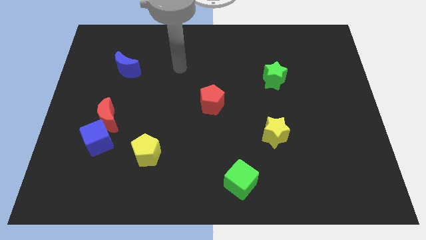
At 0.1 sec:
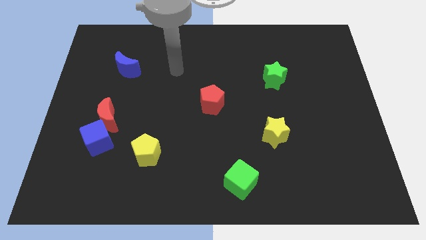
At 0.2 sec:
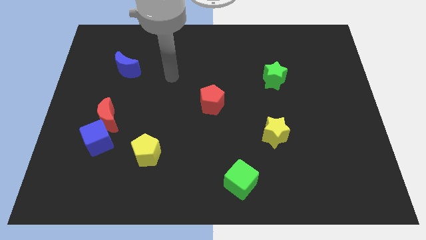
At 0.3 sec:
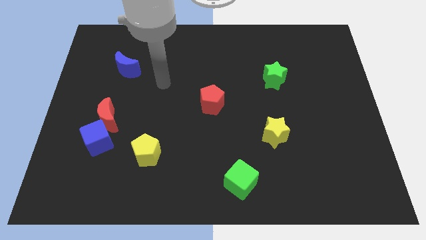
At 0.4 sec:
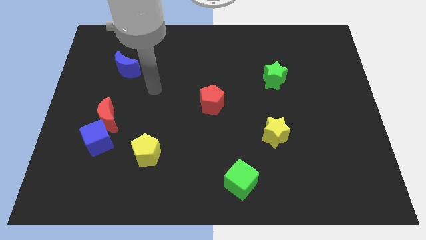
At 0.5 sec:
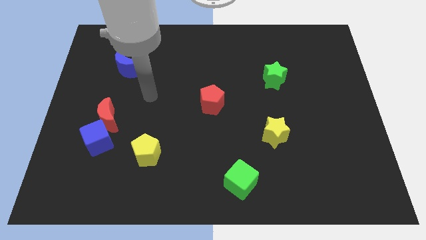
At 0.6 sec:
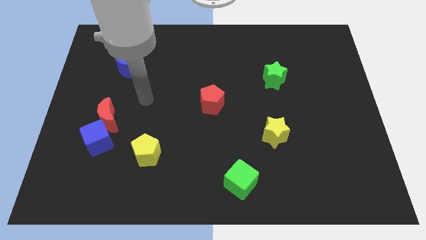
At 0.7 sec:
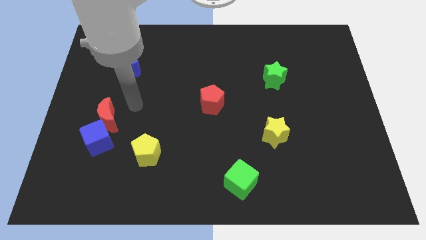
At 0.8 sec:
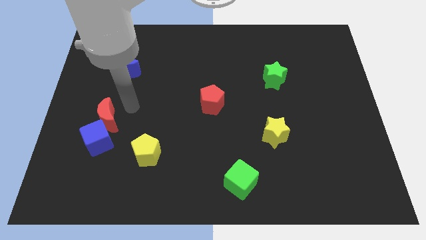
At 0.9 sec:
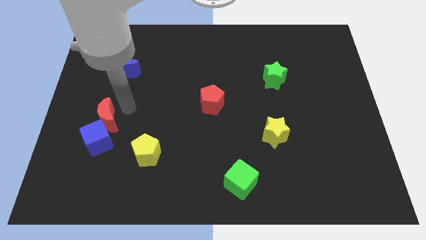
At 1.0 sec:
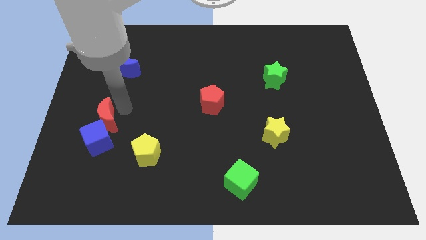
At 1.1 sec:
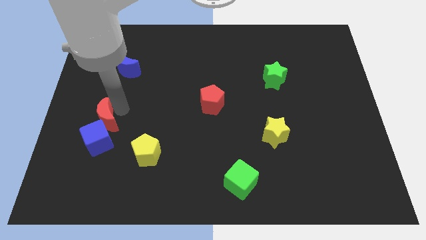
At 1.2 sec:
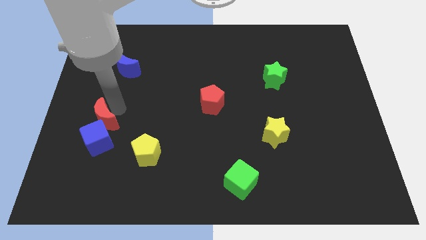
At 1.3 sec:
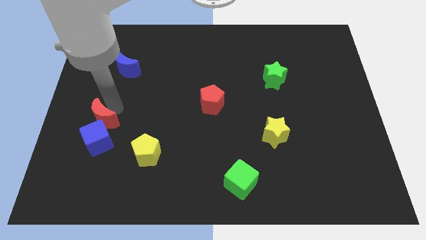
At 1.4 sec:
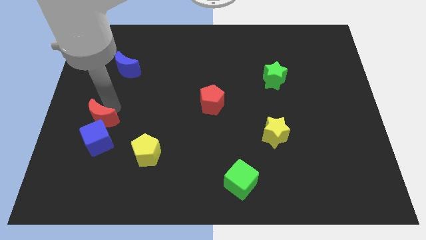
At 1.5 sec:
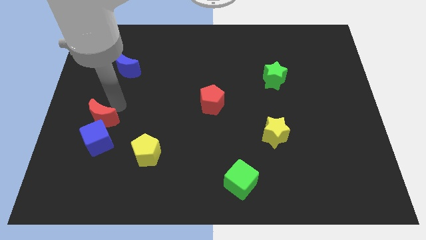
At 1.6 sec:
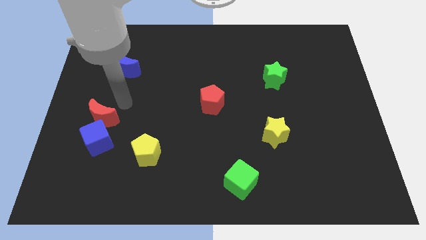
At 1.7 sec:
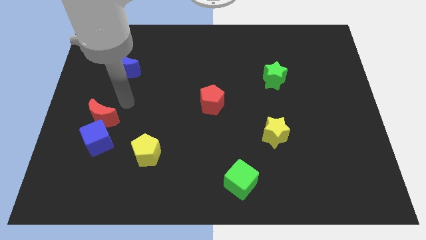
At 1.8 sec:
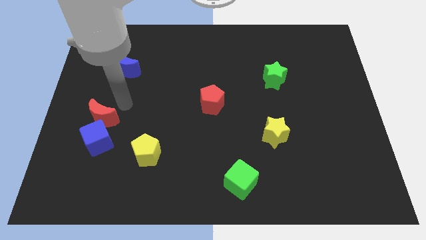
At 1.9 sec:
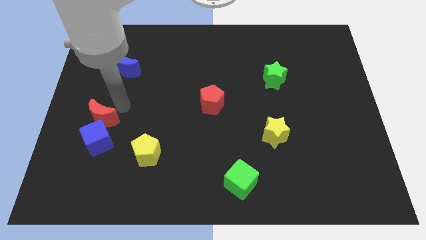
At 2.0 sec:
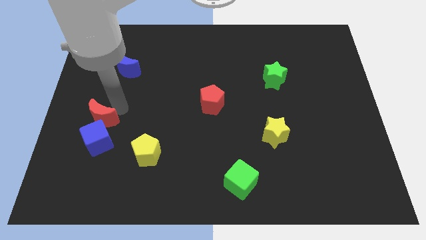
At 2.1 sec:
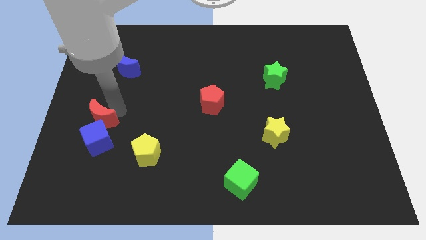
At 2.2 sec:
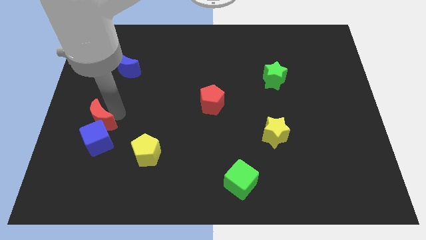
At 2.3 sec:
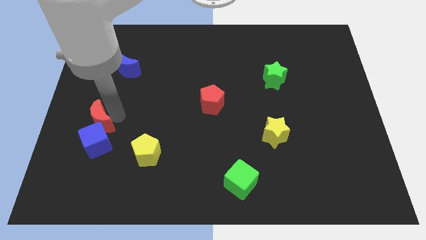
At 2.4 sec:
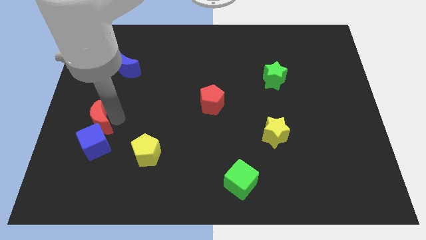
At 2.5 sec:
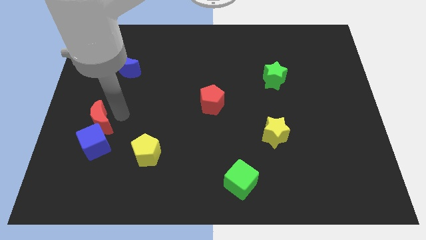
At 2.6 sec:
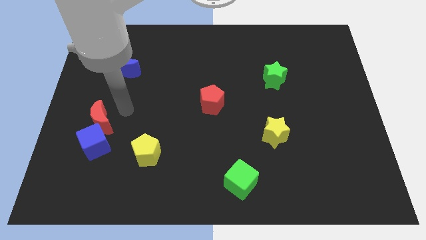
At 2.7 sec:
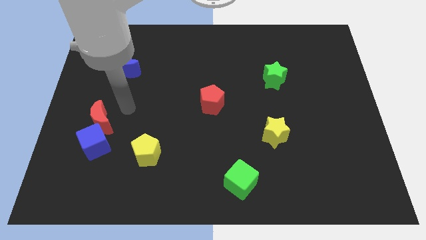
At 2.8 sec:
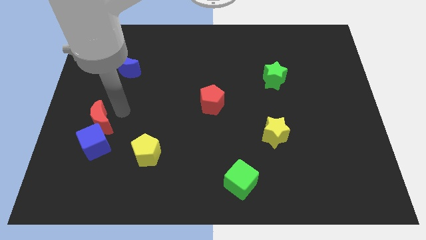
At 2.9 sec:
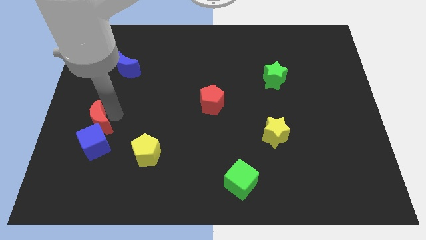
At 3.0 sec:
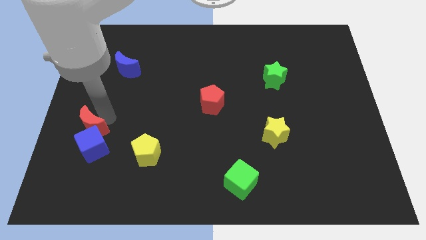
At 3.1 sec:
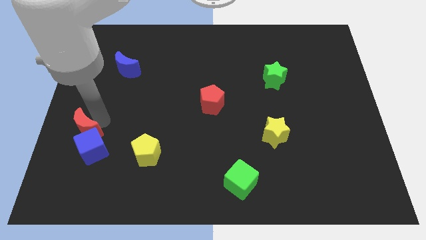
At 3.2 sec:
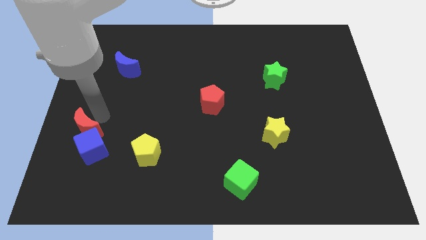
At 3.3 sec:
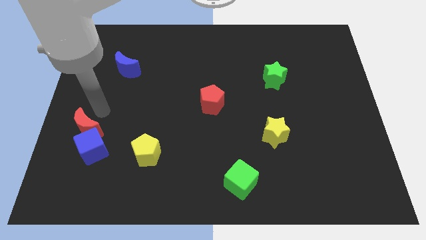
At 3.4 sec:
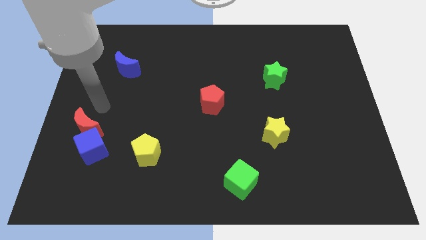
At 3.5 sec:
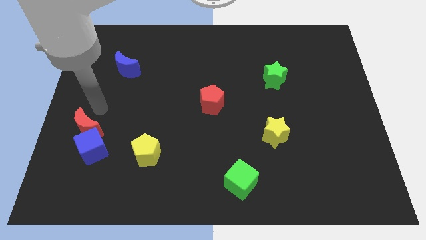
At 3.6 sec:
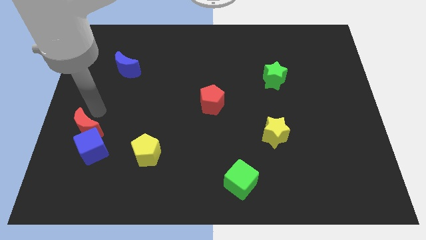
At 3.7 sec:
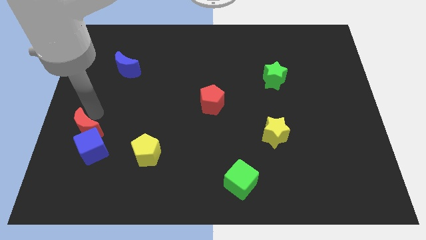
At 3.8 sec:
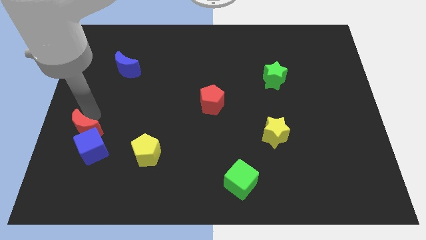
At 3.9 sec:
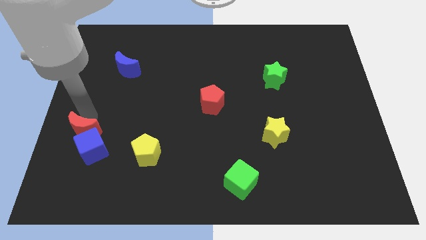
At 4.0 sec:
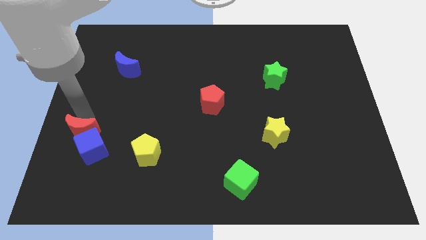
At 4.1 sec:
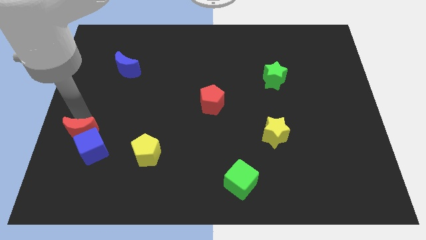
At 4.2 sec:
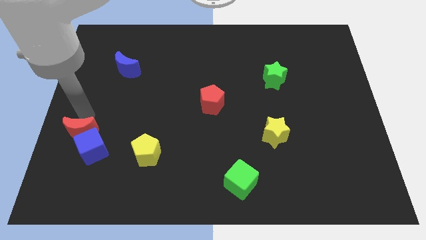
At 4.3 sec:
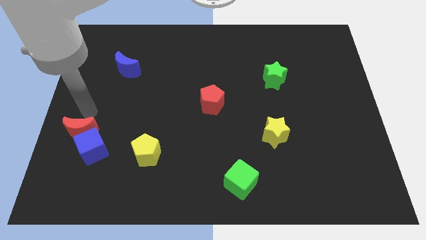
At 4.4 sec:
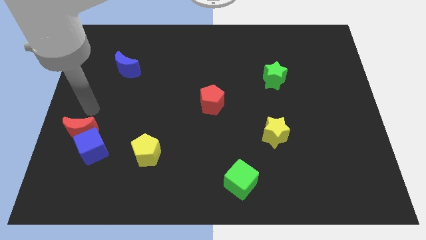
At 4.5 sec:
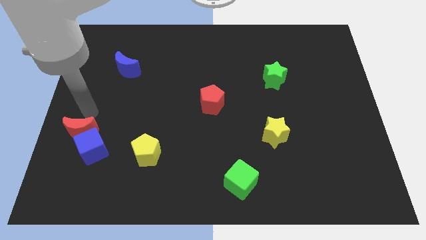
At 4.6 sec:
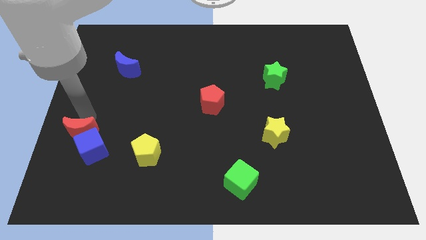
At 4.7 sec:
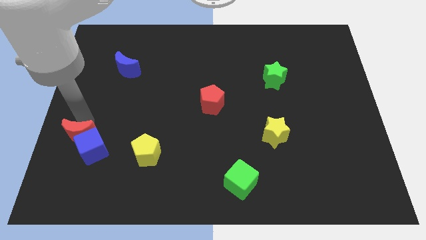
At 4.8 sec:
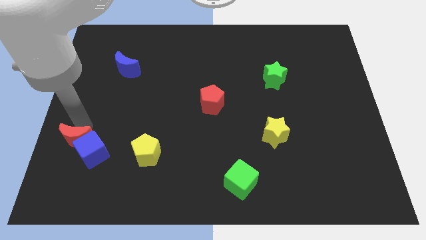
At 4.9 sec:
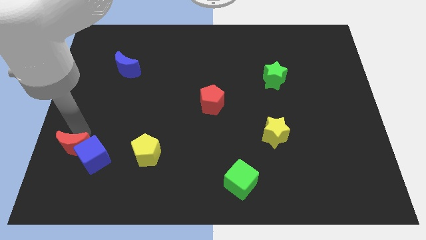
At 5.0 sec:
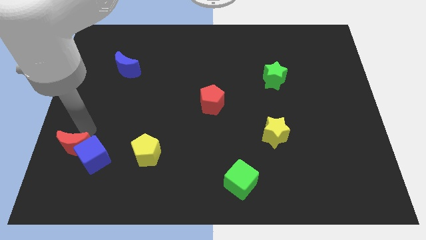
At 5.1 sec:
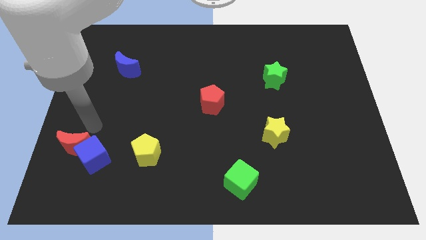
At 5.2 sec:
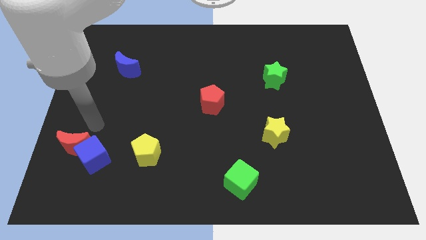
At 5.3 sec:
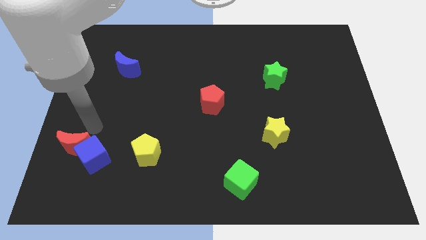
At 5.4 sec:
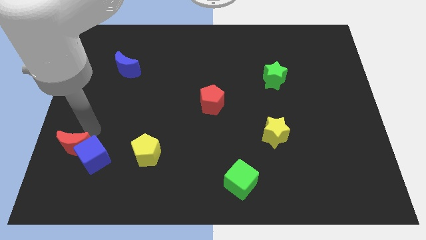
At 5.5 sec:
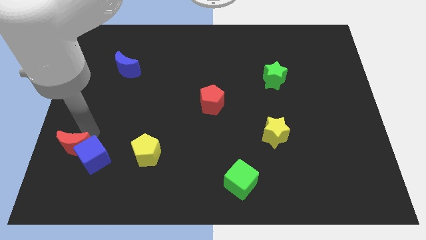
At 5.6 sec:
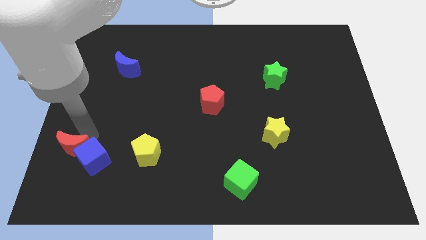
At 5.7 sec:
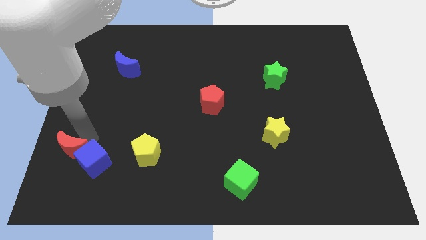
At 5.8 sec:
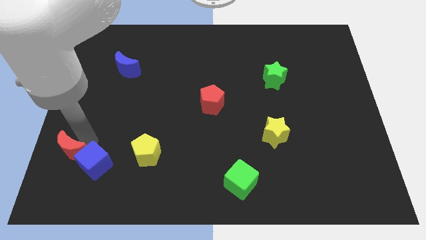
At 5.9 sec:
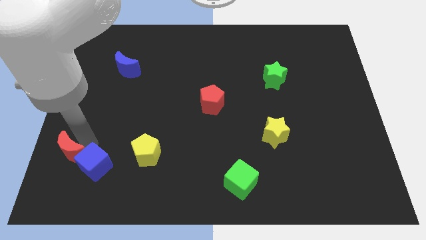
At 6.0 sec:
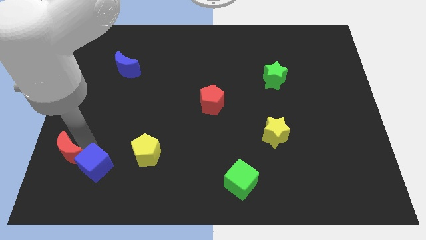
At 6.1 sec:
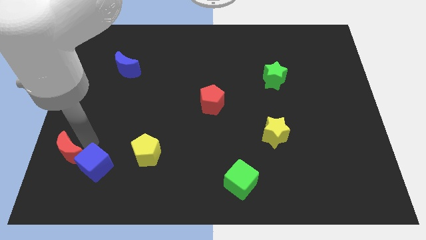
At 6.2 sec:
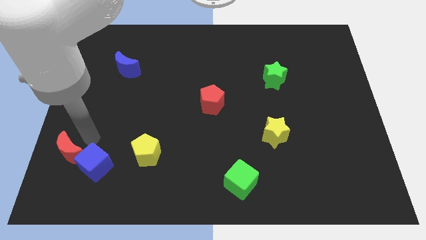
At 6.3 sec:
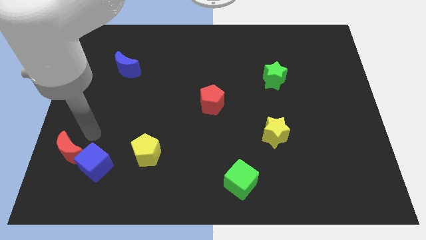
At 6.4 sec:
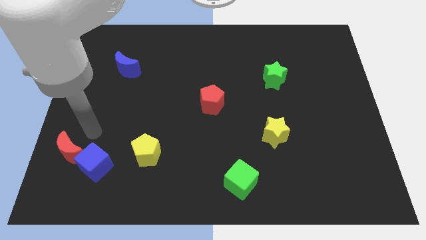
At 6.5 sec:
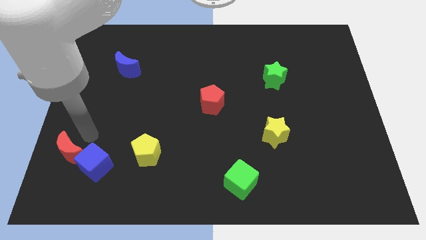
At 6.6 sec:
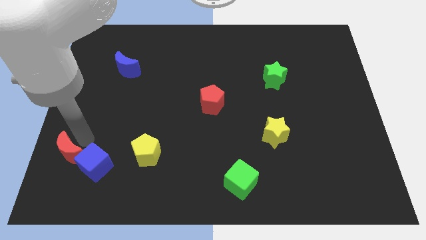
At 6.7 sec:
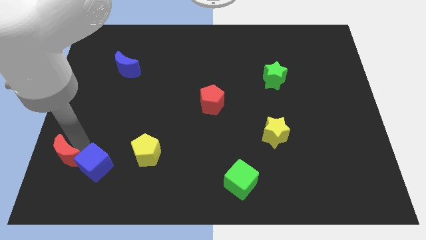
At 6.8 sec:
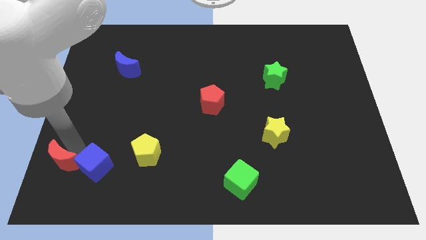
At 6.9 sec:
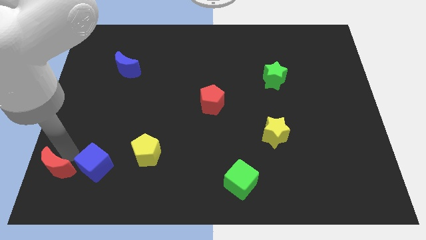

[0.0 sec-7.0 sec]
put the red moon to the bottom left corner
